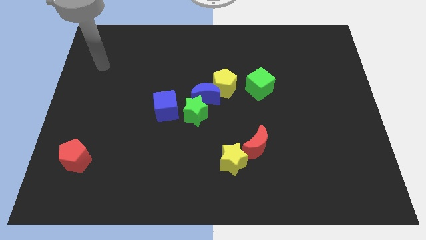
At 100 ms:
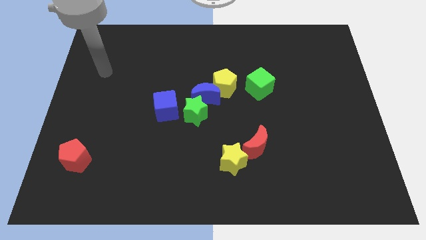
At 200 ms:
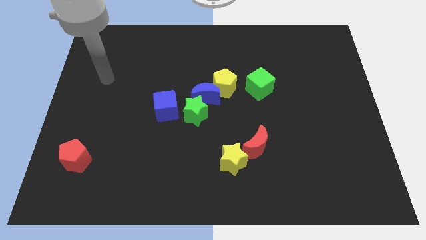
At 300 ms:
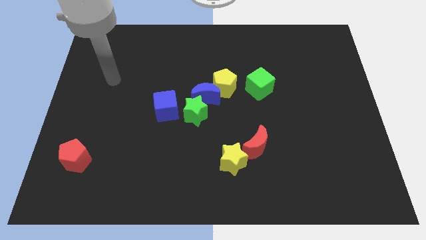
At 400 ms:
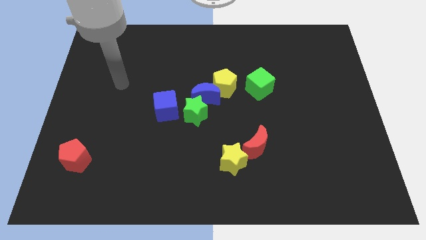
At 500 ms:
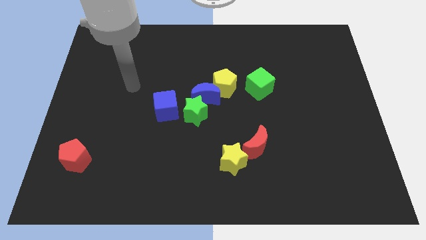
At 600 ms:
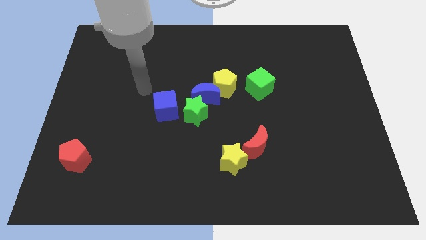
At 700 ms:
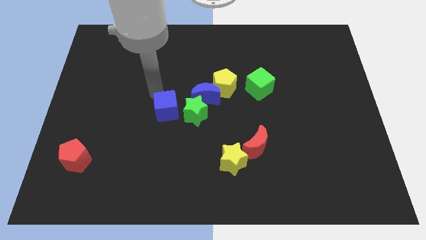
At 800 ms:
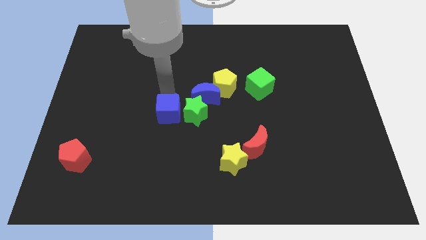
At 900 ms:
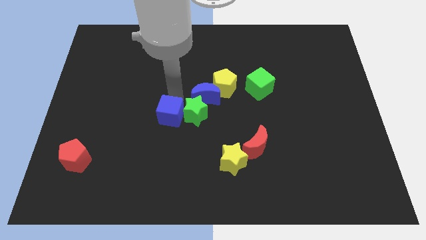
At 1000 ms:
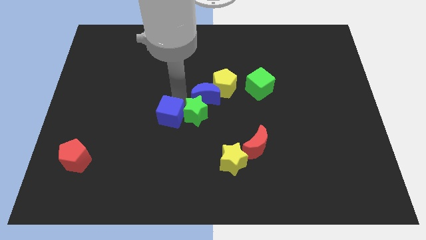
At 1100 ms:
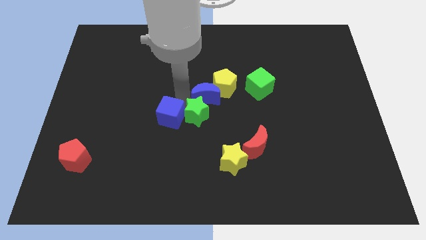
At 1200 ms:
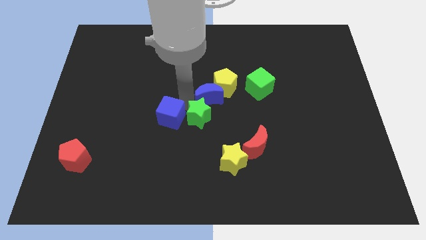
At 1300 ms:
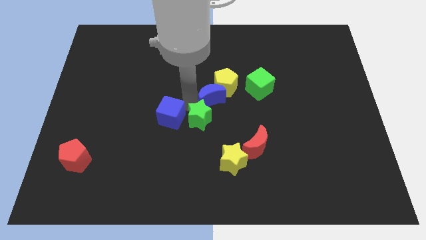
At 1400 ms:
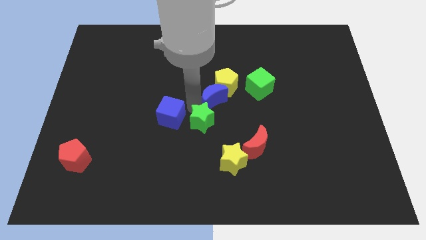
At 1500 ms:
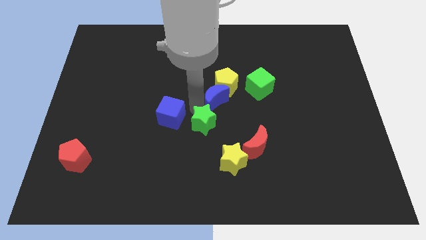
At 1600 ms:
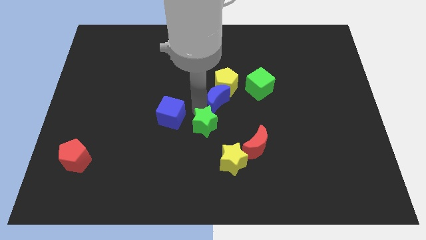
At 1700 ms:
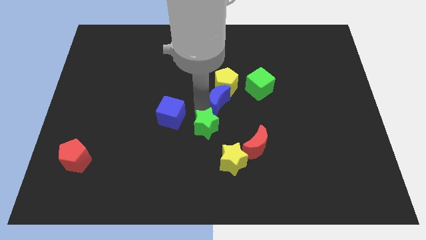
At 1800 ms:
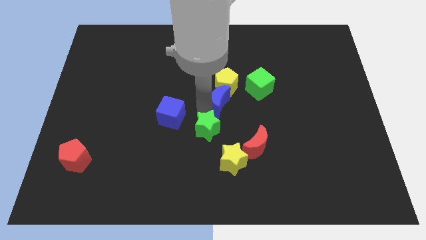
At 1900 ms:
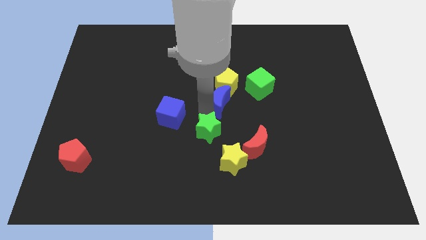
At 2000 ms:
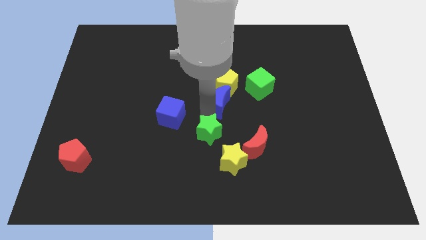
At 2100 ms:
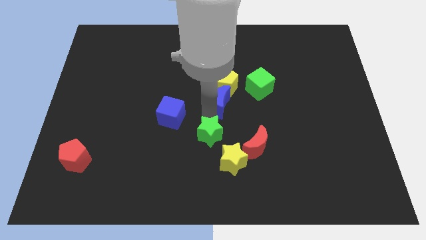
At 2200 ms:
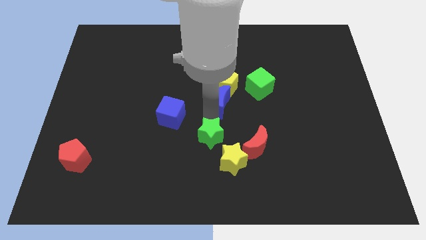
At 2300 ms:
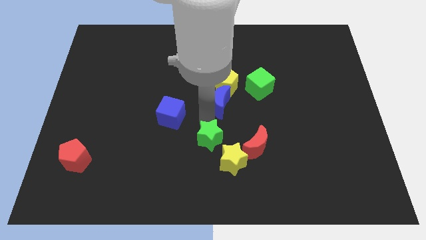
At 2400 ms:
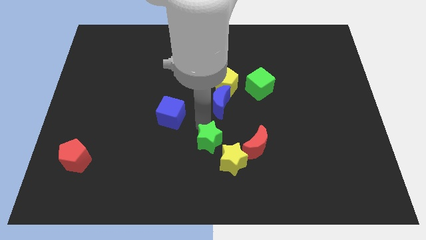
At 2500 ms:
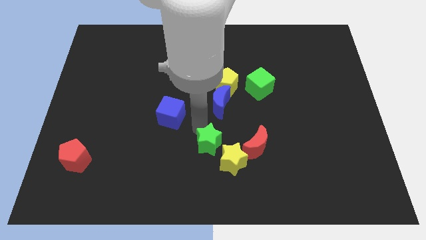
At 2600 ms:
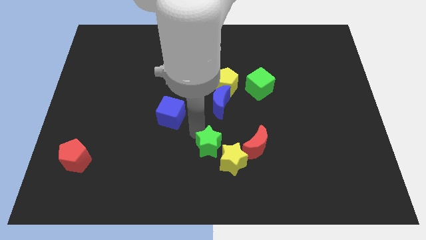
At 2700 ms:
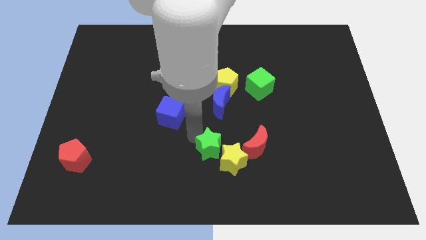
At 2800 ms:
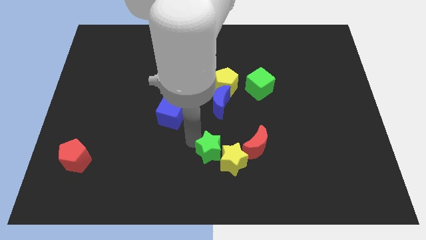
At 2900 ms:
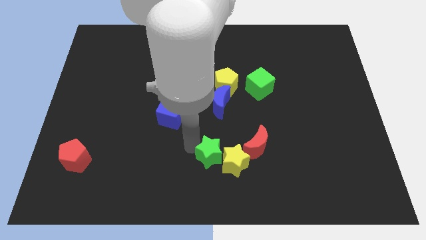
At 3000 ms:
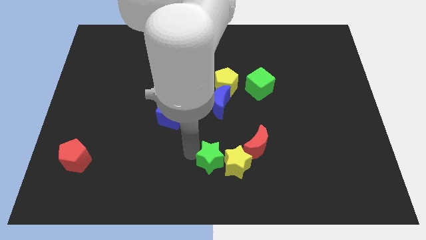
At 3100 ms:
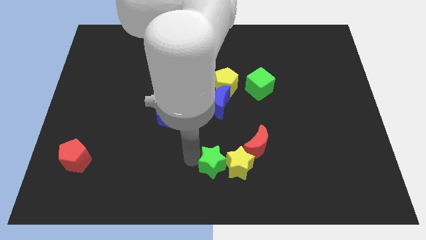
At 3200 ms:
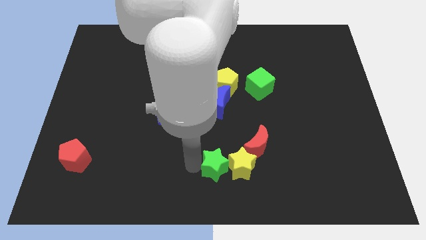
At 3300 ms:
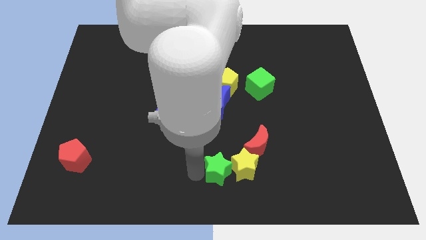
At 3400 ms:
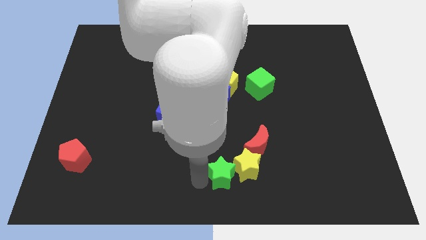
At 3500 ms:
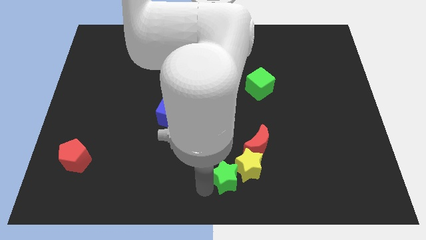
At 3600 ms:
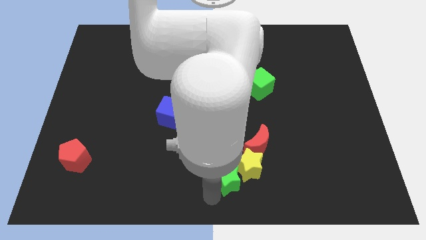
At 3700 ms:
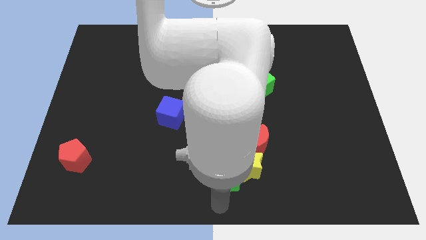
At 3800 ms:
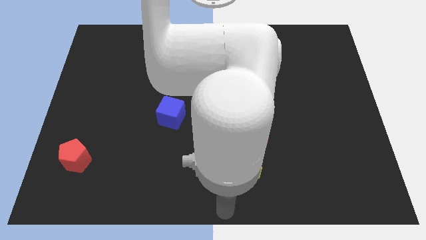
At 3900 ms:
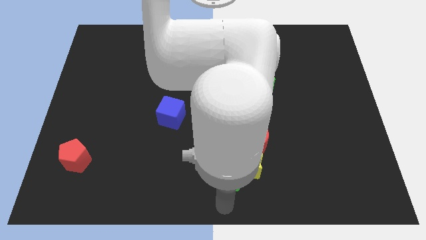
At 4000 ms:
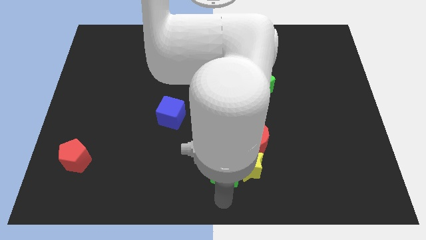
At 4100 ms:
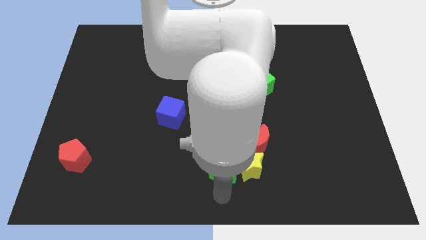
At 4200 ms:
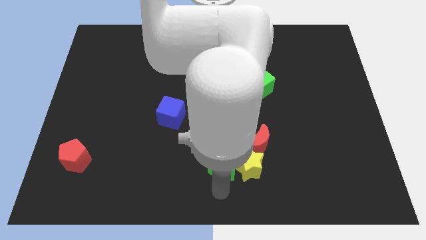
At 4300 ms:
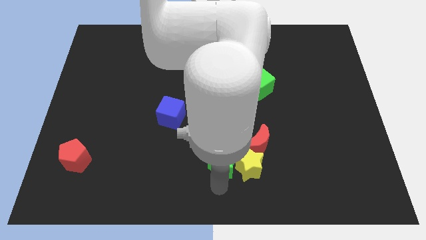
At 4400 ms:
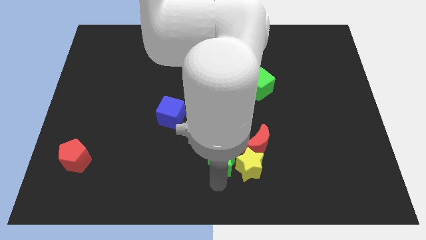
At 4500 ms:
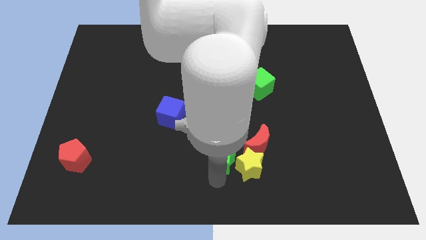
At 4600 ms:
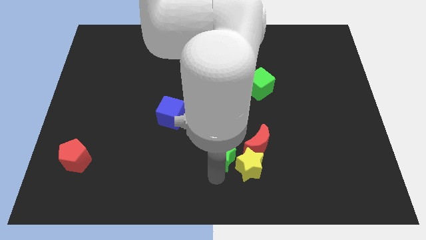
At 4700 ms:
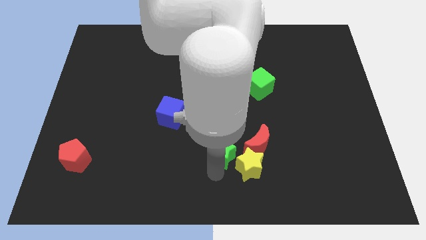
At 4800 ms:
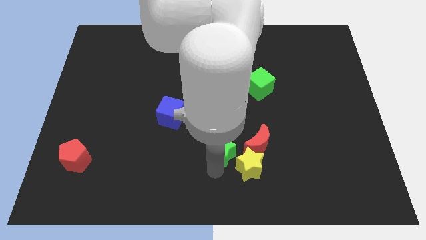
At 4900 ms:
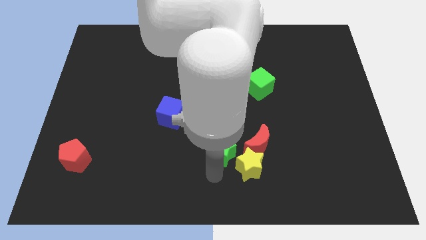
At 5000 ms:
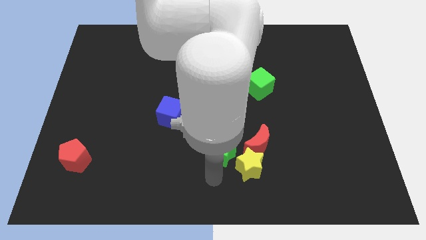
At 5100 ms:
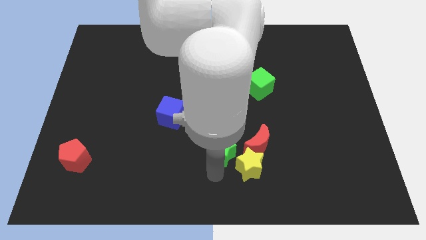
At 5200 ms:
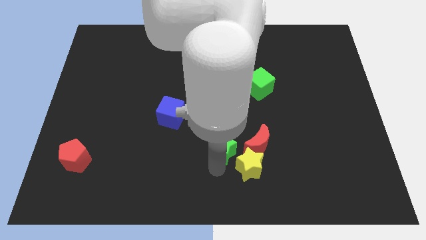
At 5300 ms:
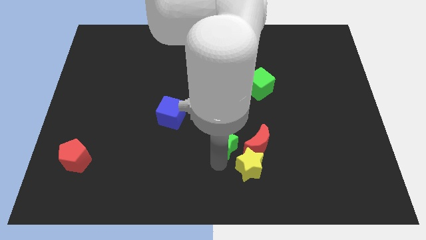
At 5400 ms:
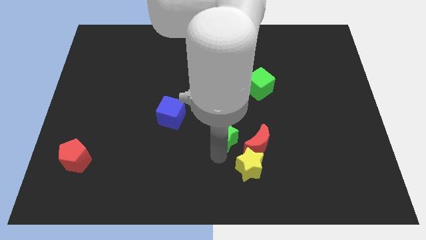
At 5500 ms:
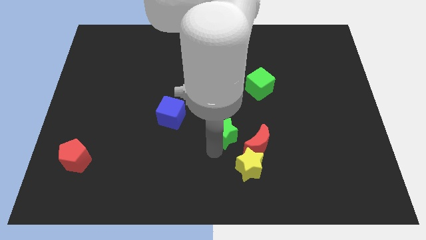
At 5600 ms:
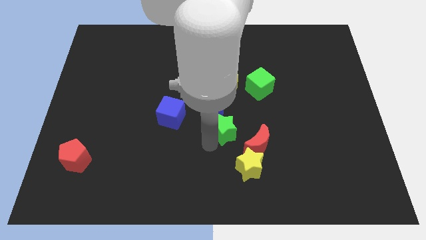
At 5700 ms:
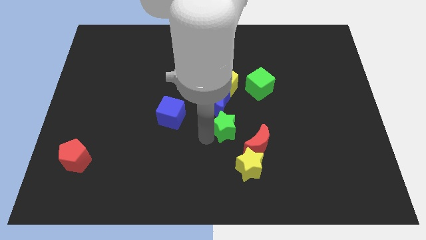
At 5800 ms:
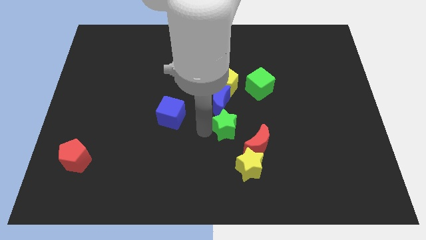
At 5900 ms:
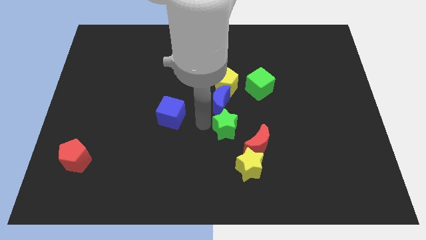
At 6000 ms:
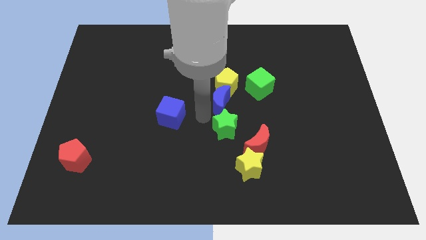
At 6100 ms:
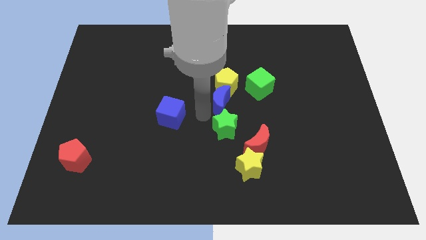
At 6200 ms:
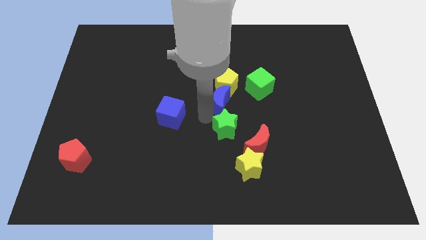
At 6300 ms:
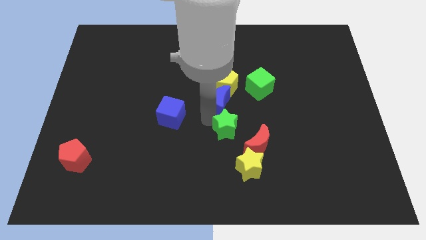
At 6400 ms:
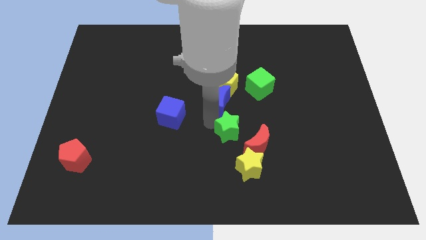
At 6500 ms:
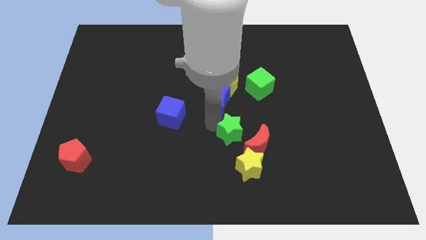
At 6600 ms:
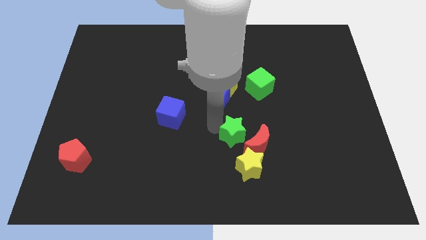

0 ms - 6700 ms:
move the green star next to the red moon
